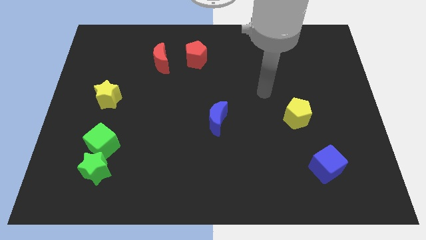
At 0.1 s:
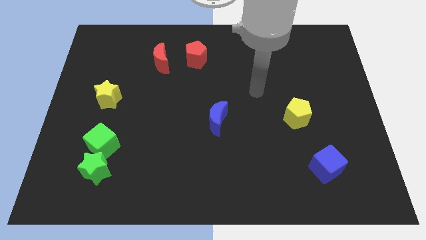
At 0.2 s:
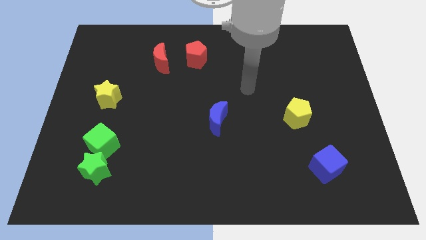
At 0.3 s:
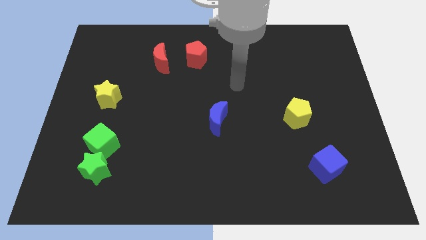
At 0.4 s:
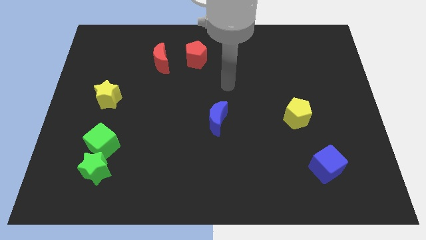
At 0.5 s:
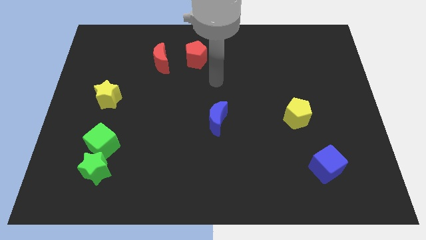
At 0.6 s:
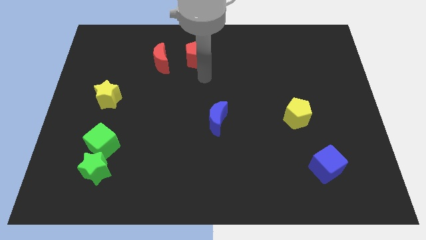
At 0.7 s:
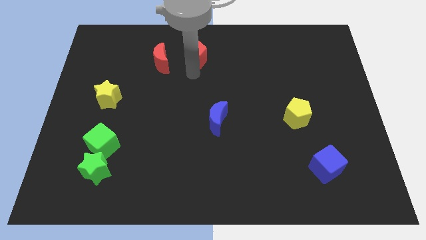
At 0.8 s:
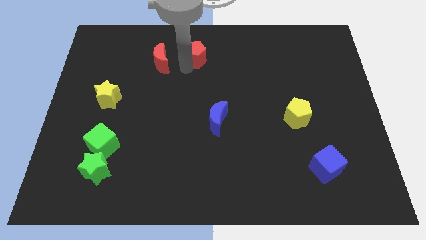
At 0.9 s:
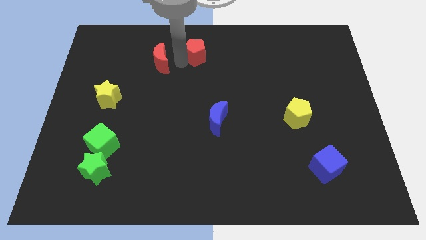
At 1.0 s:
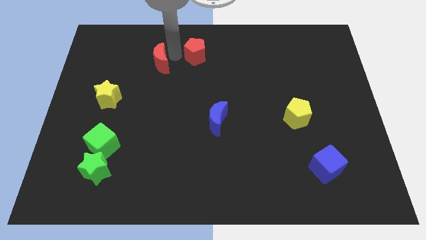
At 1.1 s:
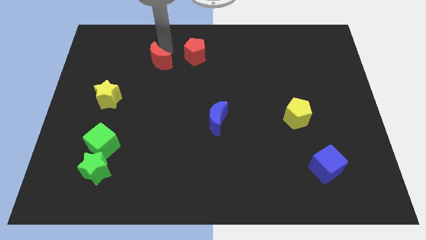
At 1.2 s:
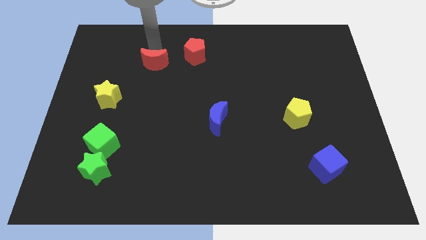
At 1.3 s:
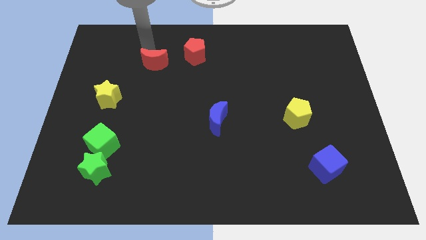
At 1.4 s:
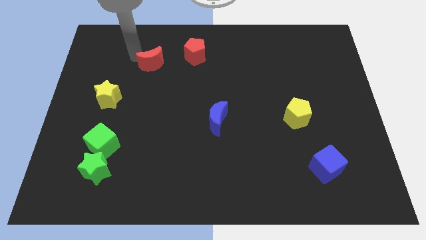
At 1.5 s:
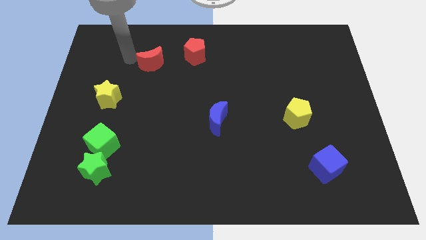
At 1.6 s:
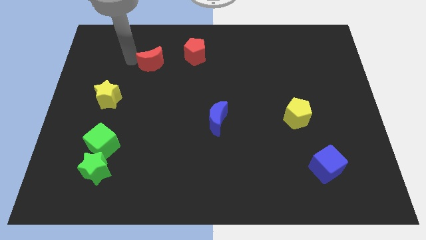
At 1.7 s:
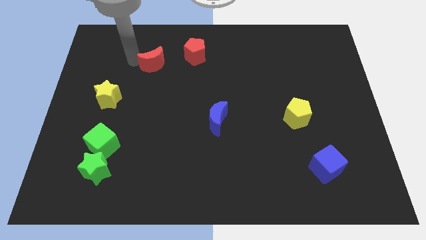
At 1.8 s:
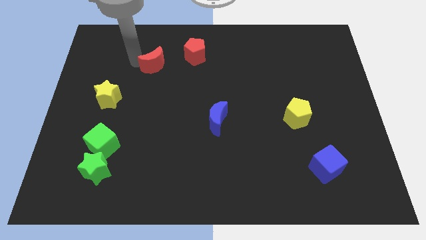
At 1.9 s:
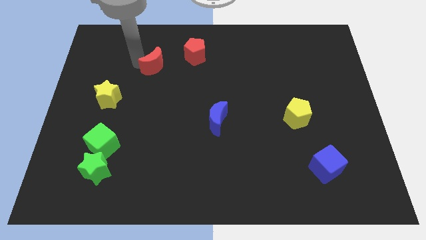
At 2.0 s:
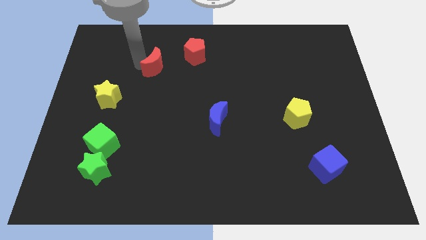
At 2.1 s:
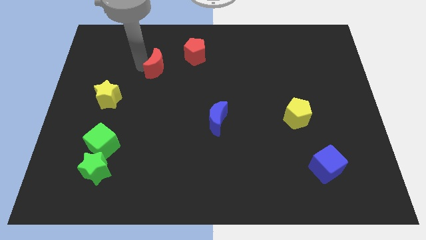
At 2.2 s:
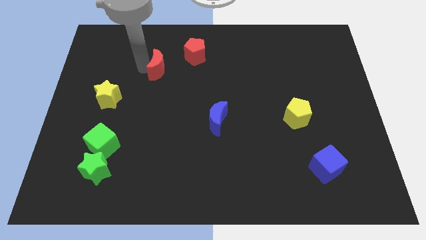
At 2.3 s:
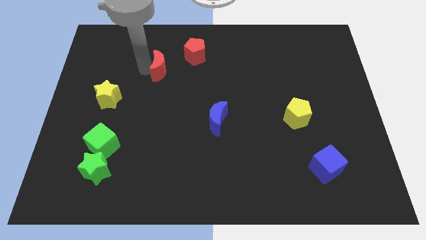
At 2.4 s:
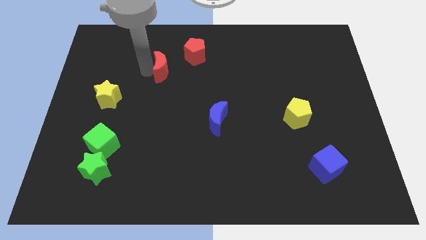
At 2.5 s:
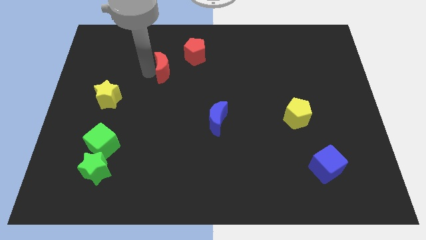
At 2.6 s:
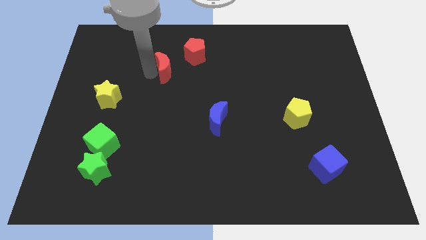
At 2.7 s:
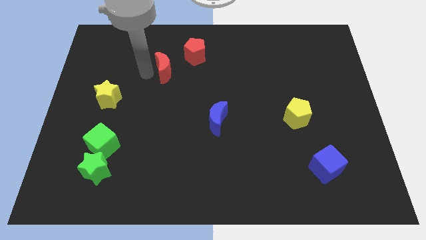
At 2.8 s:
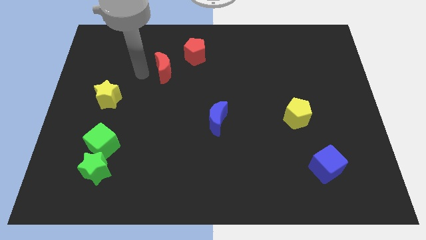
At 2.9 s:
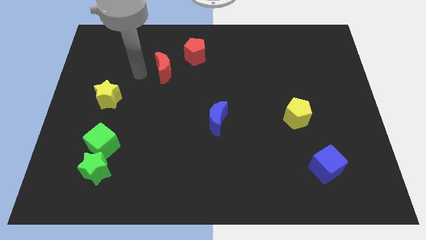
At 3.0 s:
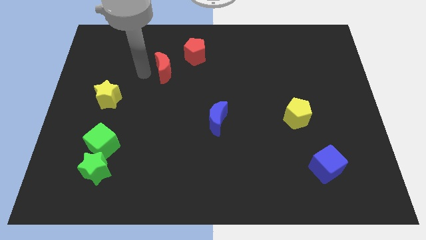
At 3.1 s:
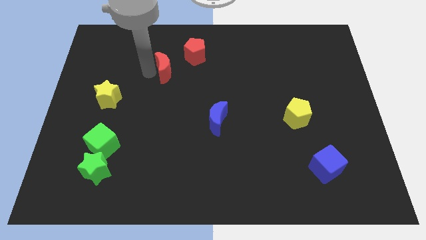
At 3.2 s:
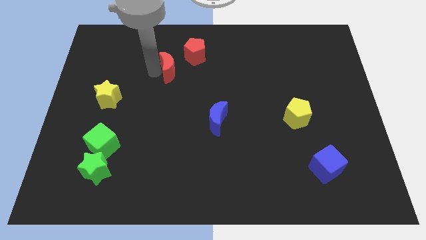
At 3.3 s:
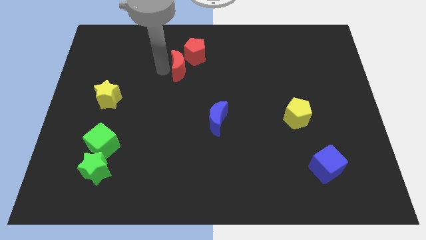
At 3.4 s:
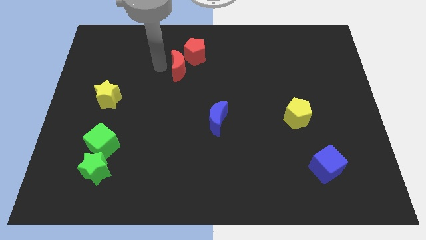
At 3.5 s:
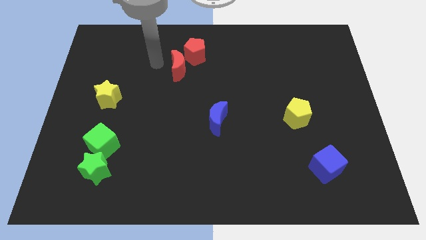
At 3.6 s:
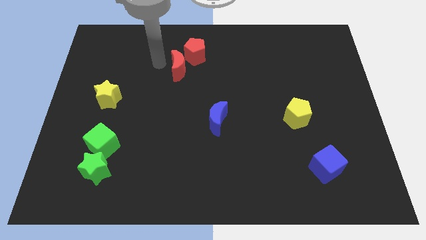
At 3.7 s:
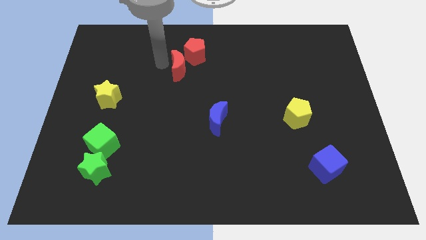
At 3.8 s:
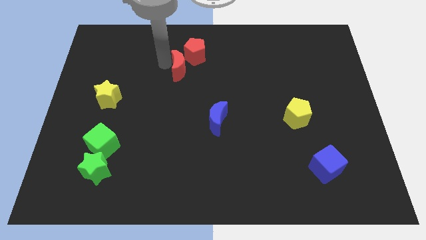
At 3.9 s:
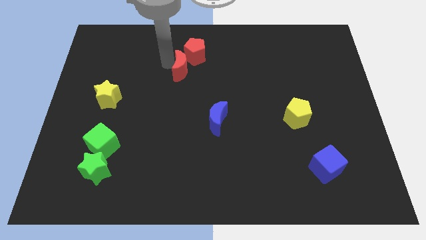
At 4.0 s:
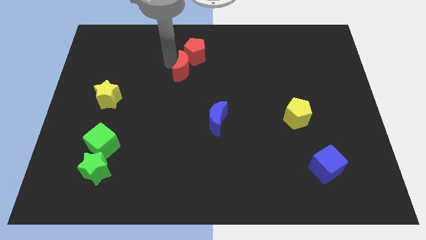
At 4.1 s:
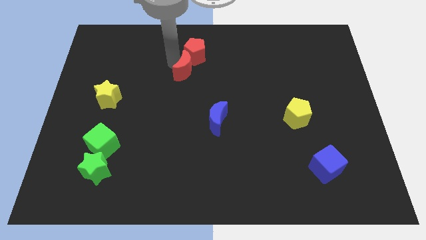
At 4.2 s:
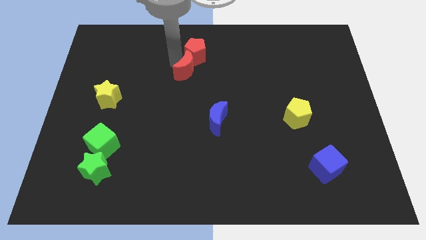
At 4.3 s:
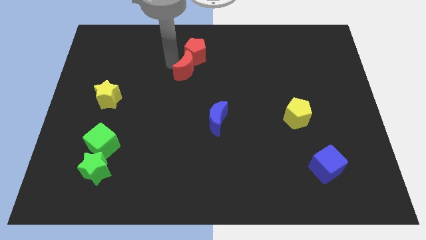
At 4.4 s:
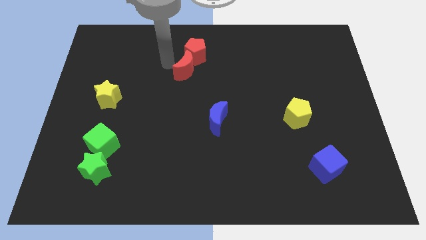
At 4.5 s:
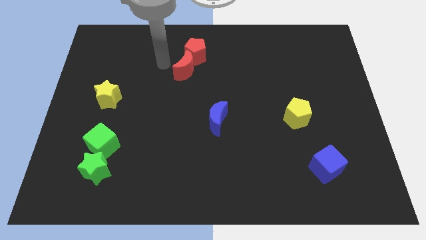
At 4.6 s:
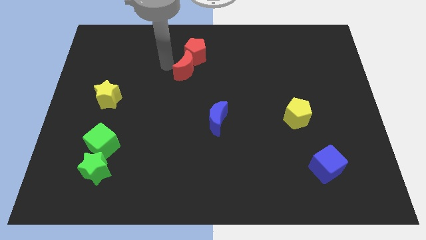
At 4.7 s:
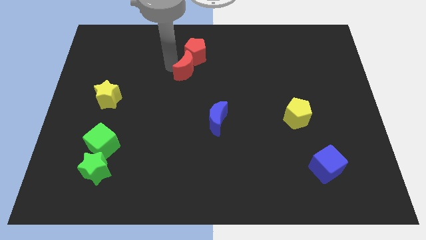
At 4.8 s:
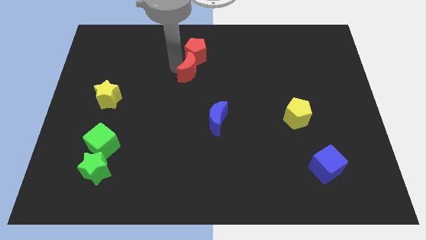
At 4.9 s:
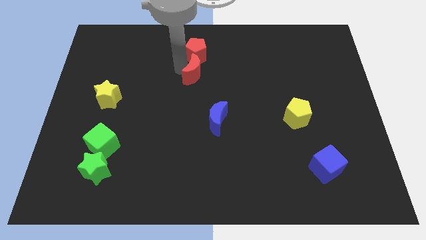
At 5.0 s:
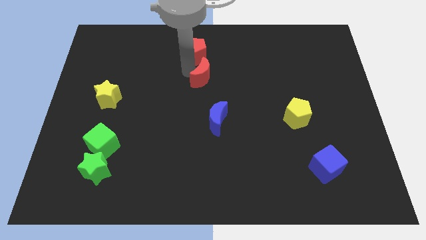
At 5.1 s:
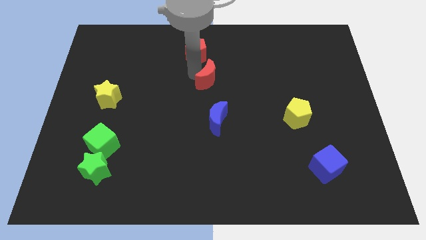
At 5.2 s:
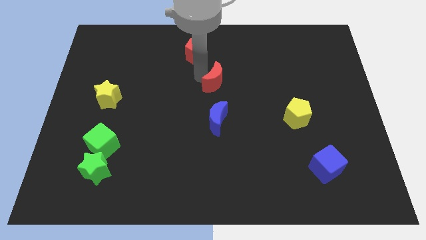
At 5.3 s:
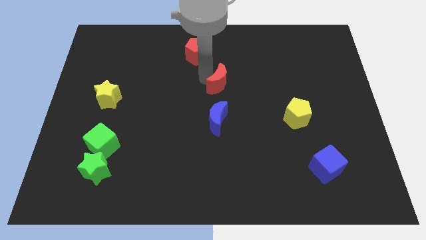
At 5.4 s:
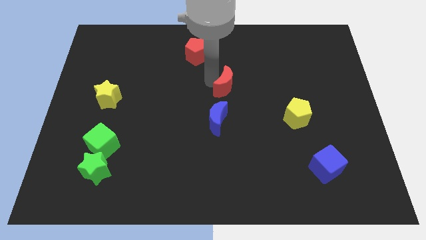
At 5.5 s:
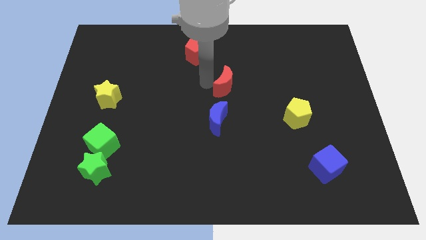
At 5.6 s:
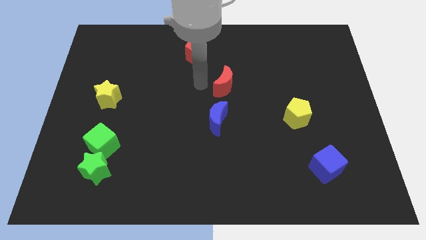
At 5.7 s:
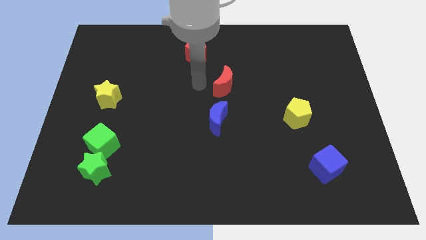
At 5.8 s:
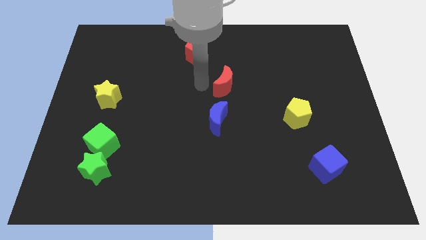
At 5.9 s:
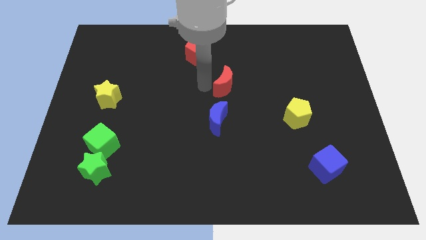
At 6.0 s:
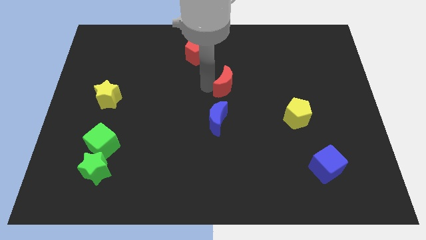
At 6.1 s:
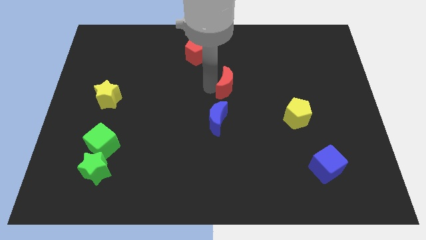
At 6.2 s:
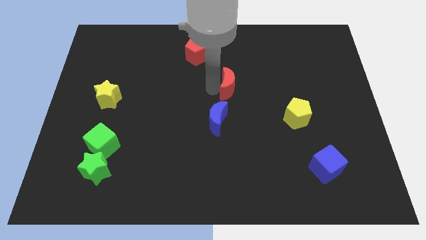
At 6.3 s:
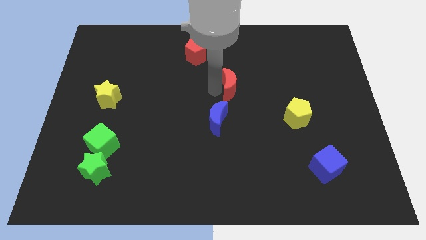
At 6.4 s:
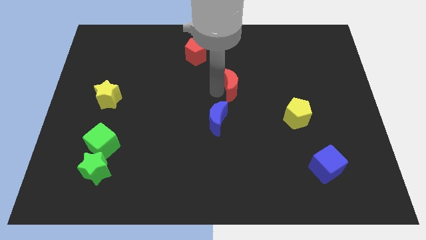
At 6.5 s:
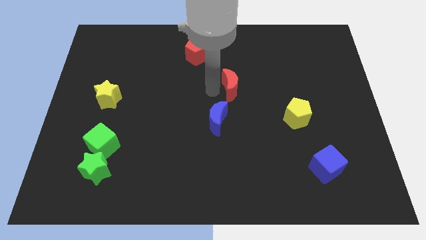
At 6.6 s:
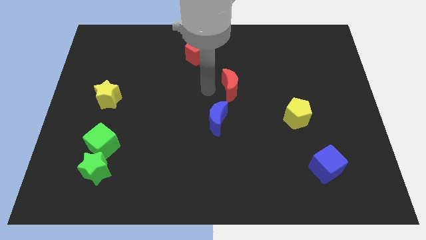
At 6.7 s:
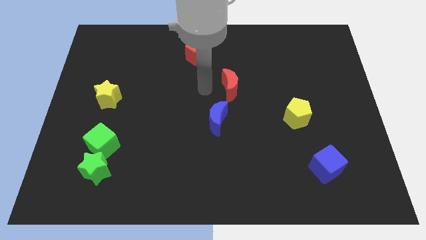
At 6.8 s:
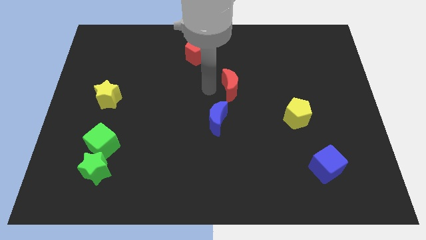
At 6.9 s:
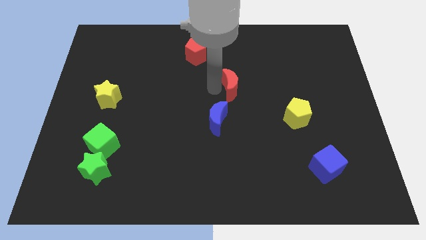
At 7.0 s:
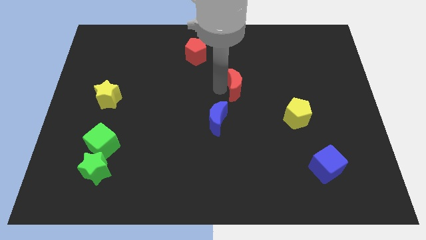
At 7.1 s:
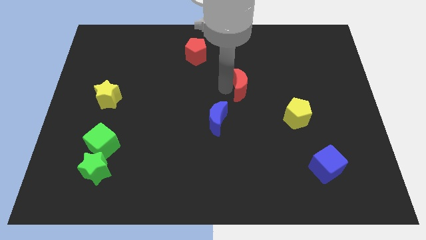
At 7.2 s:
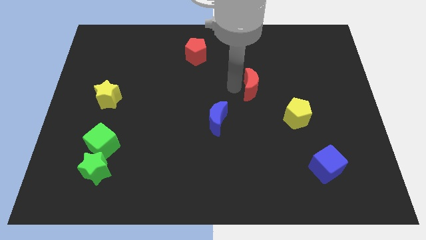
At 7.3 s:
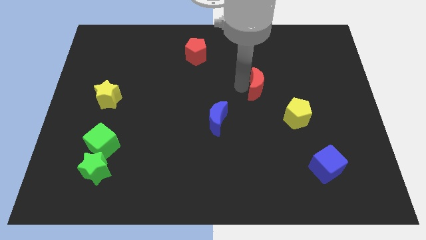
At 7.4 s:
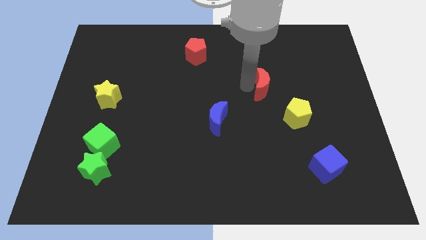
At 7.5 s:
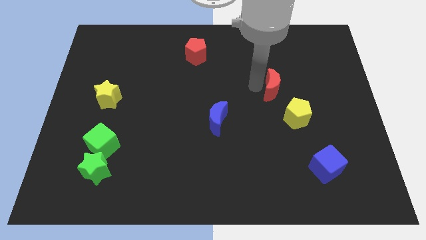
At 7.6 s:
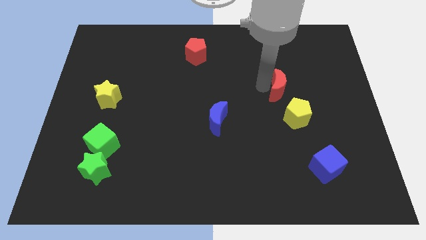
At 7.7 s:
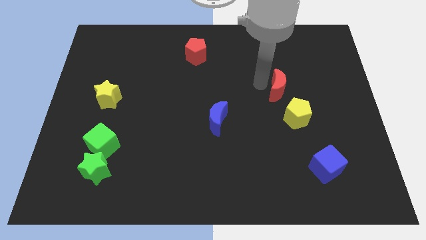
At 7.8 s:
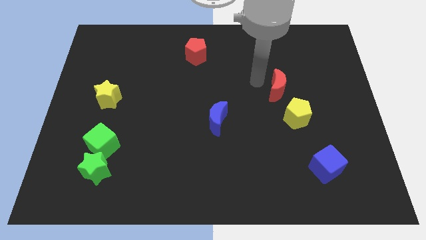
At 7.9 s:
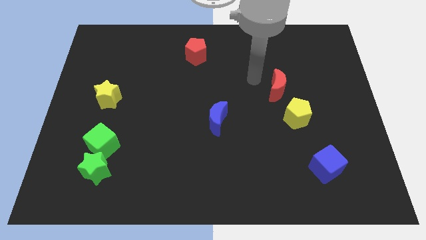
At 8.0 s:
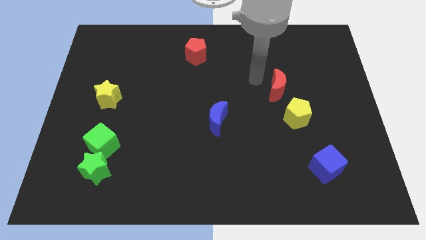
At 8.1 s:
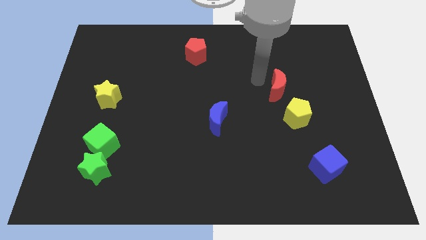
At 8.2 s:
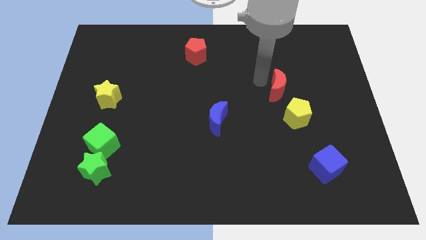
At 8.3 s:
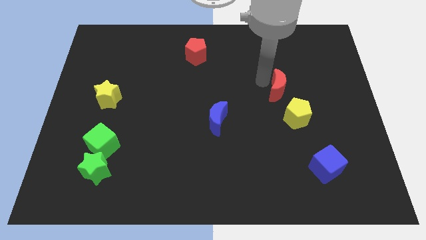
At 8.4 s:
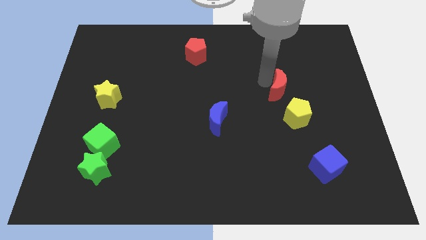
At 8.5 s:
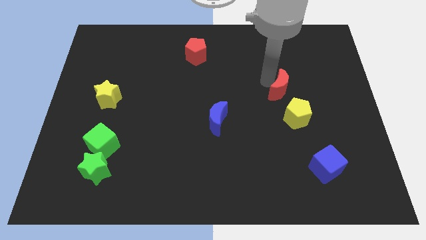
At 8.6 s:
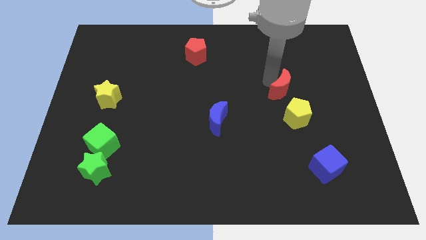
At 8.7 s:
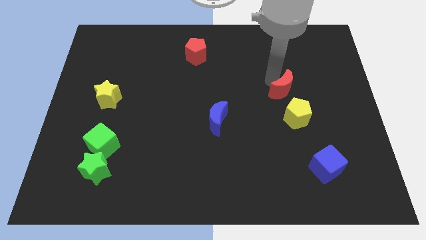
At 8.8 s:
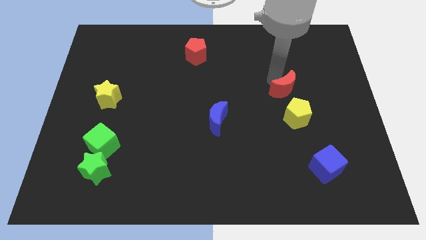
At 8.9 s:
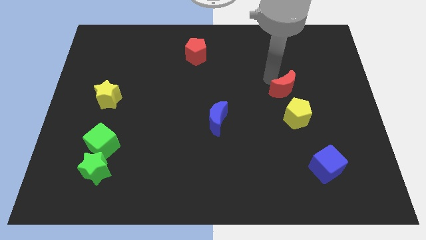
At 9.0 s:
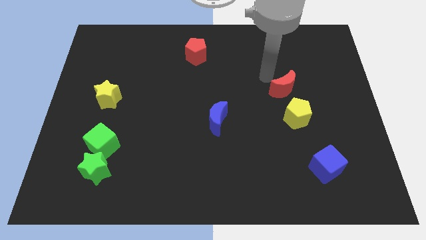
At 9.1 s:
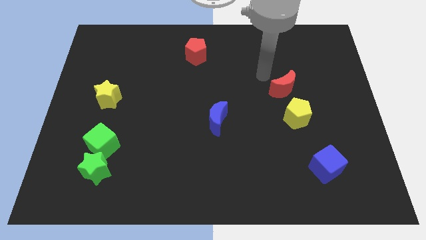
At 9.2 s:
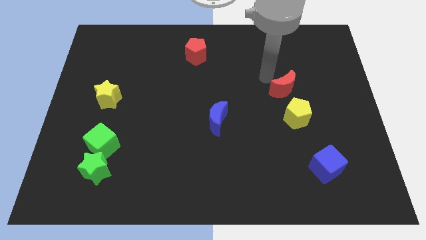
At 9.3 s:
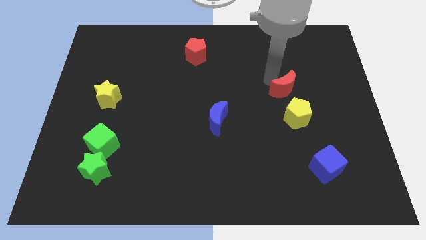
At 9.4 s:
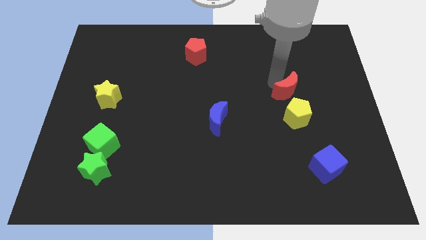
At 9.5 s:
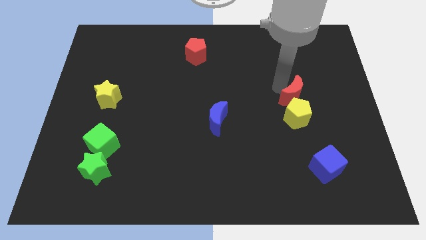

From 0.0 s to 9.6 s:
move the red moon to the top right side of the yellow pentagon
